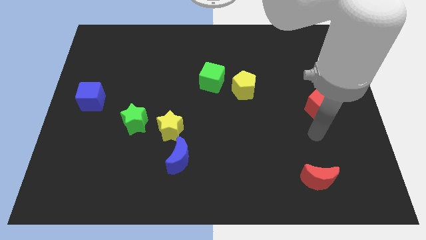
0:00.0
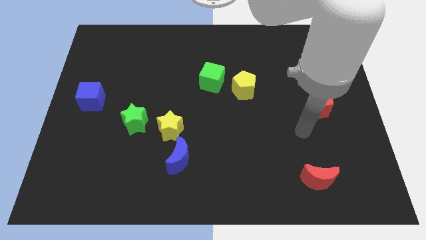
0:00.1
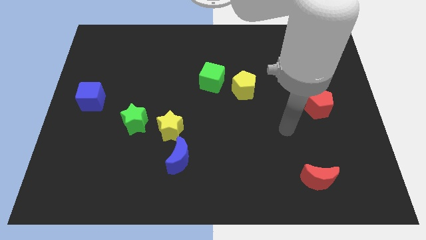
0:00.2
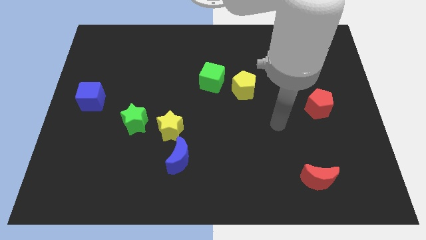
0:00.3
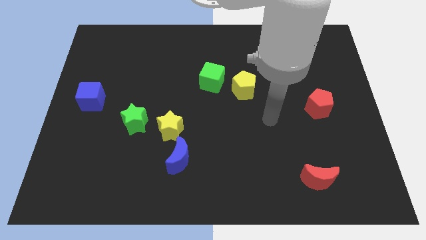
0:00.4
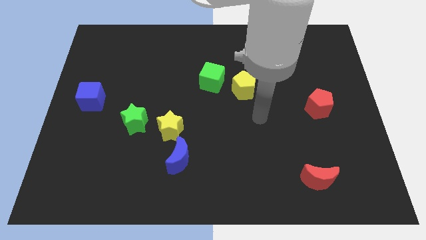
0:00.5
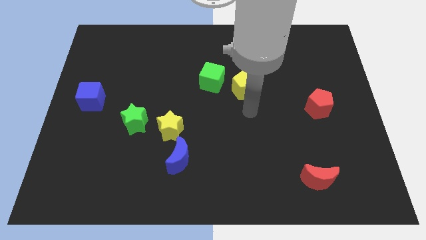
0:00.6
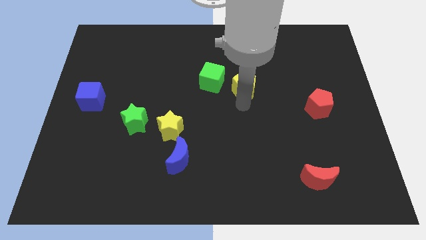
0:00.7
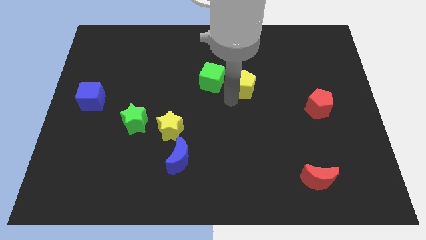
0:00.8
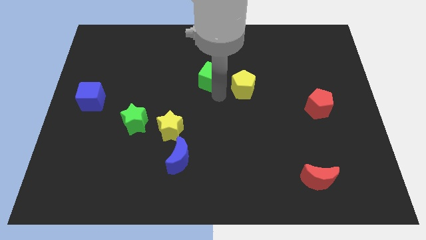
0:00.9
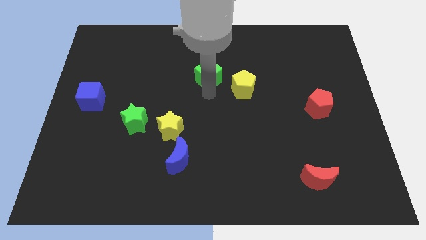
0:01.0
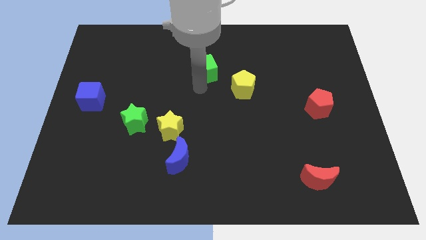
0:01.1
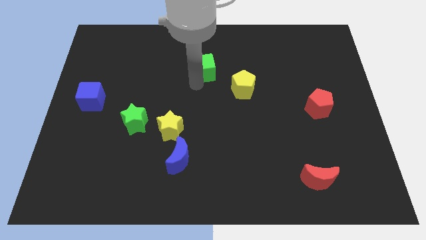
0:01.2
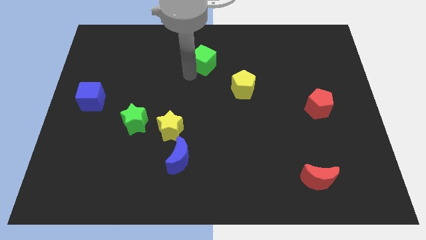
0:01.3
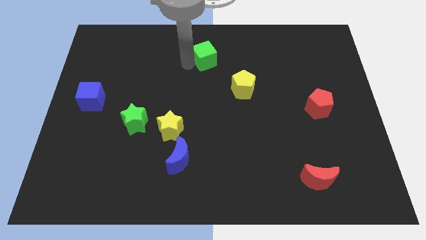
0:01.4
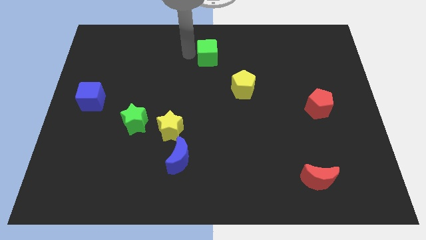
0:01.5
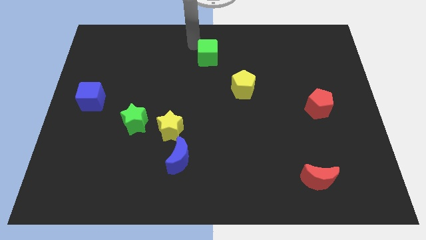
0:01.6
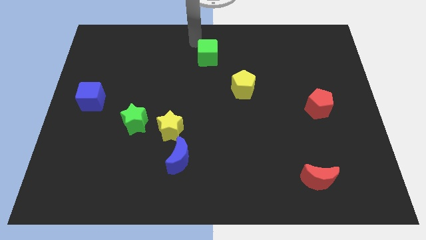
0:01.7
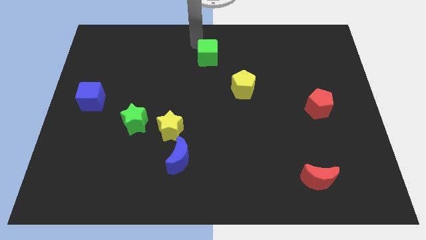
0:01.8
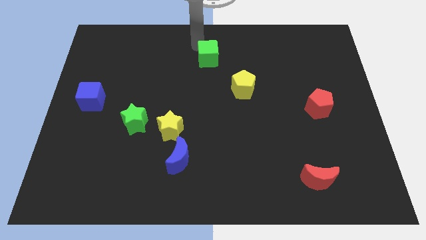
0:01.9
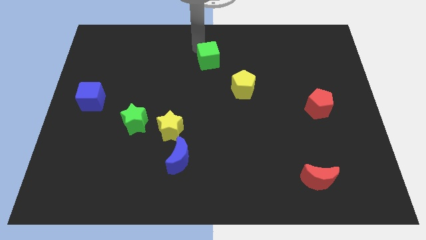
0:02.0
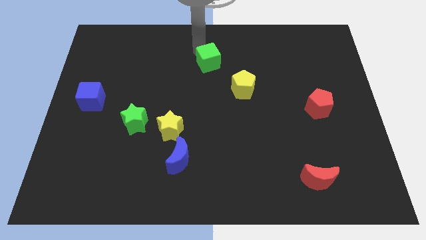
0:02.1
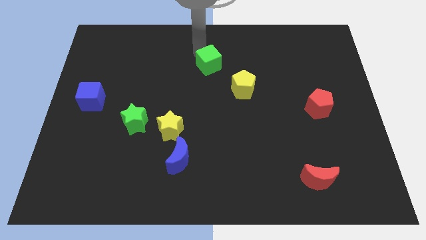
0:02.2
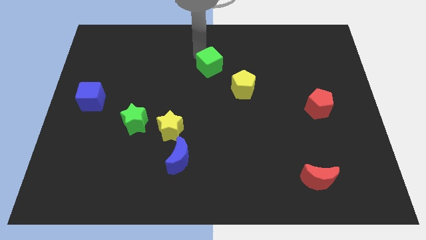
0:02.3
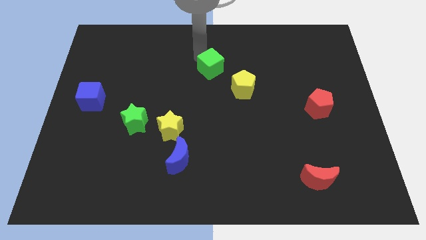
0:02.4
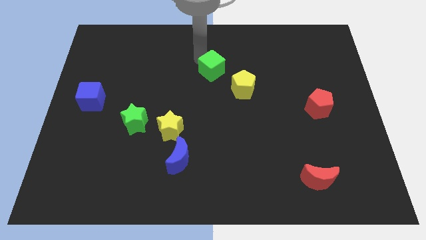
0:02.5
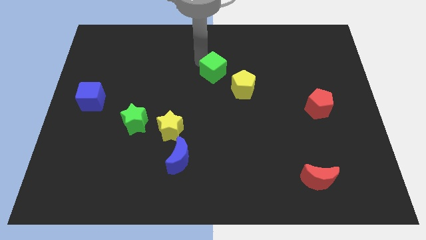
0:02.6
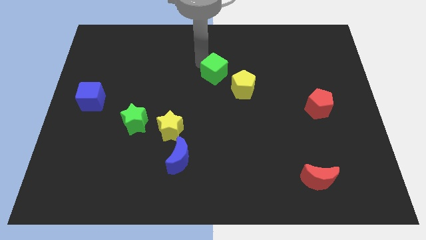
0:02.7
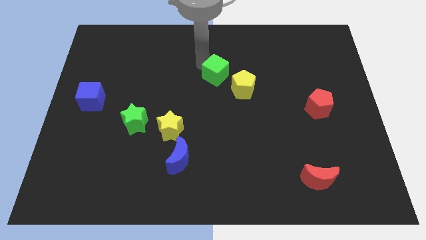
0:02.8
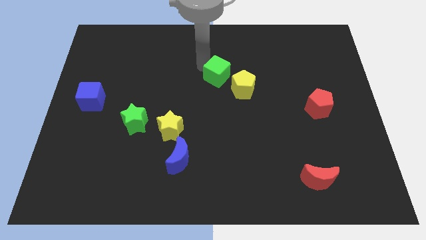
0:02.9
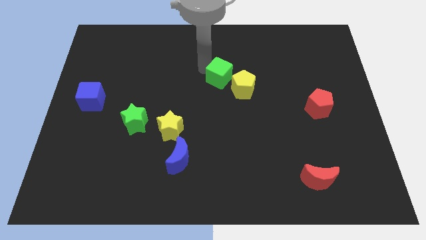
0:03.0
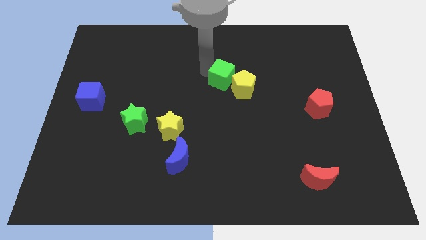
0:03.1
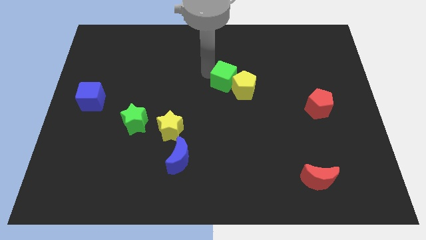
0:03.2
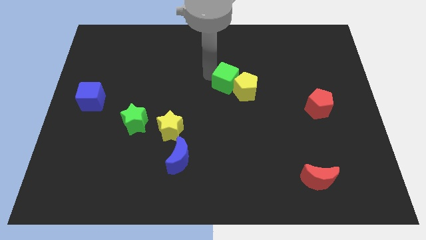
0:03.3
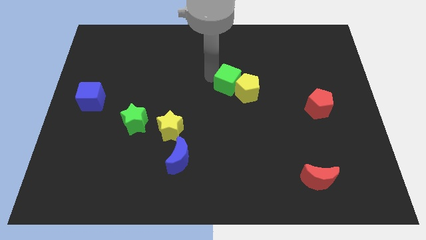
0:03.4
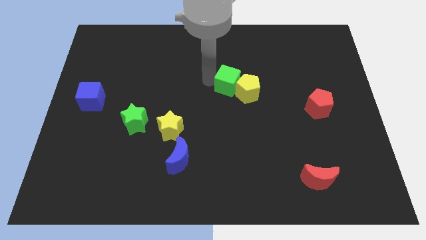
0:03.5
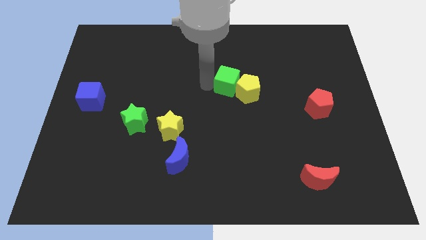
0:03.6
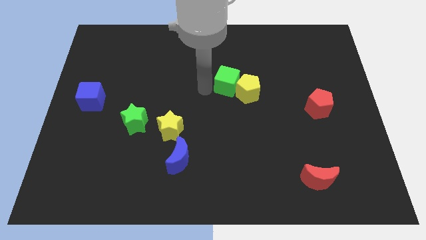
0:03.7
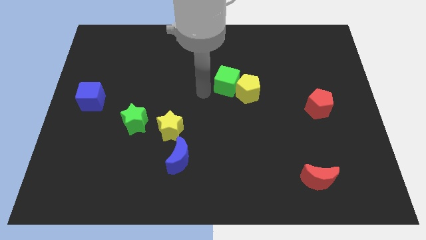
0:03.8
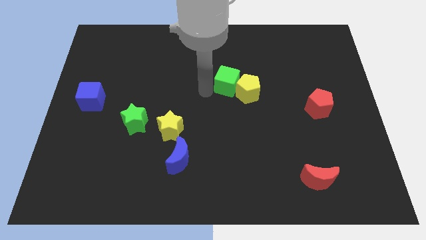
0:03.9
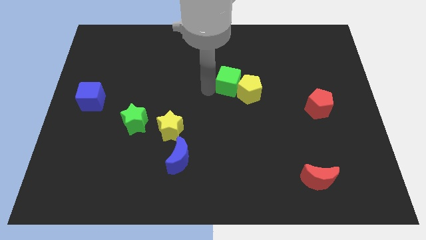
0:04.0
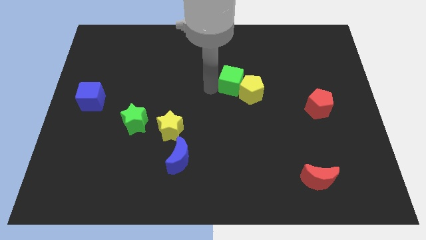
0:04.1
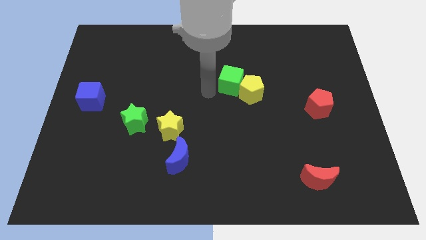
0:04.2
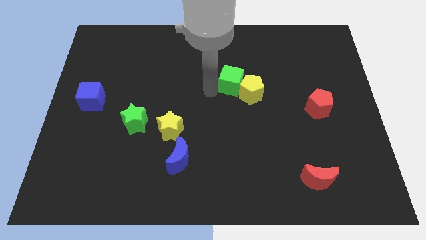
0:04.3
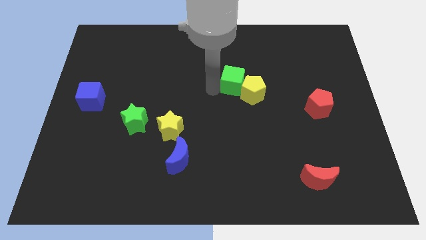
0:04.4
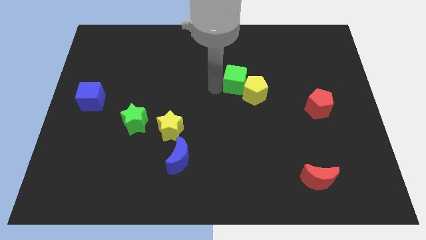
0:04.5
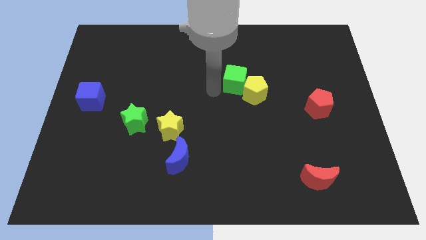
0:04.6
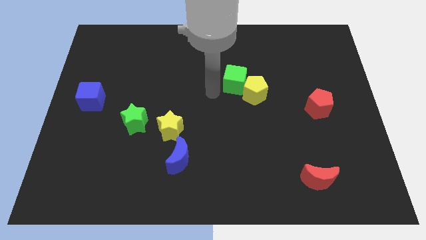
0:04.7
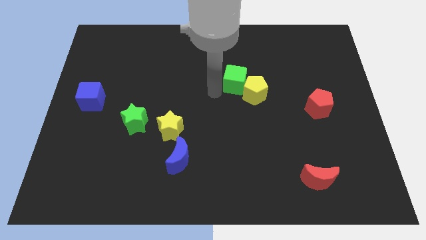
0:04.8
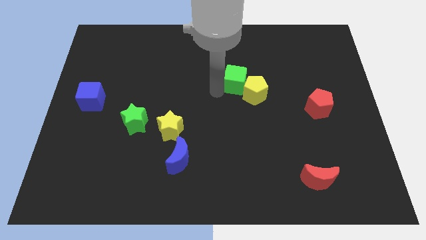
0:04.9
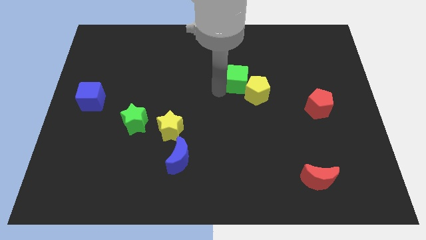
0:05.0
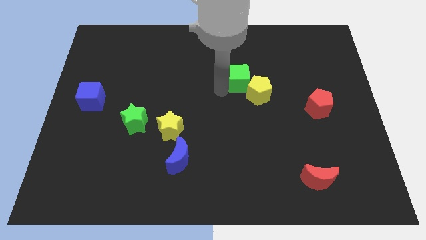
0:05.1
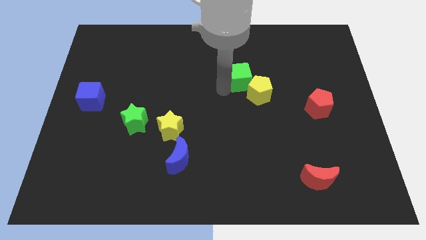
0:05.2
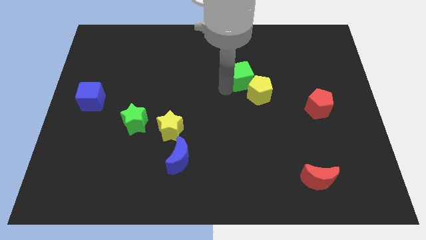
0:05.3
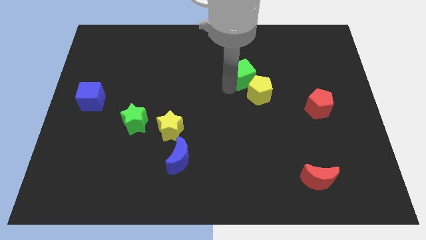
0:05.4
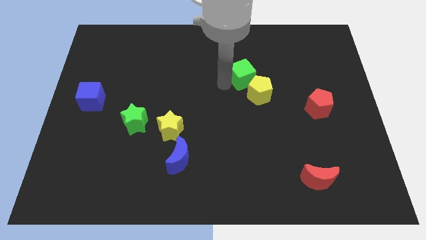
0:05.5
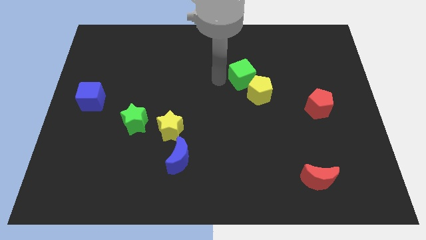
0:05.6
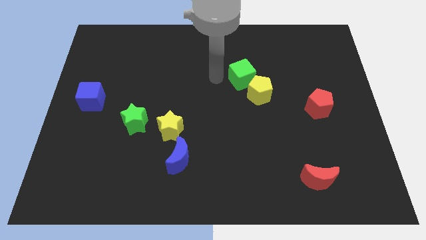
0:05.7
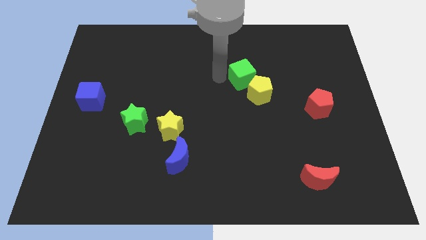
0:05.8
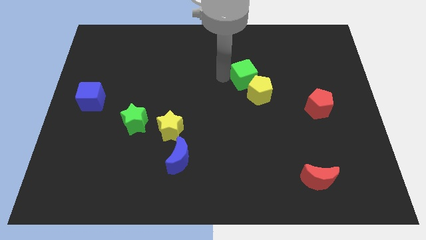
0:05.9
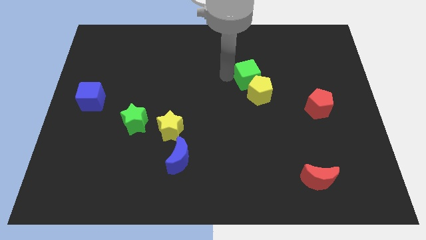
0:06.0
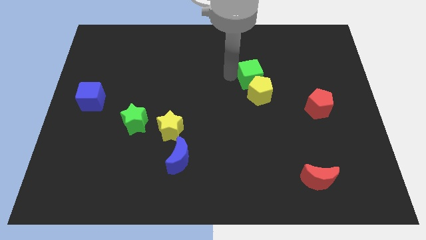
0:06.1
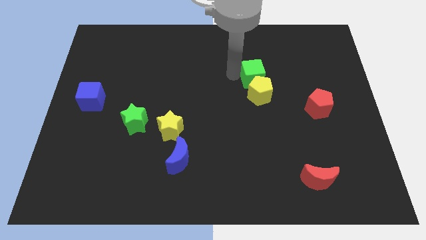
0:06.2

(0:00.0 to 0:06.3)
slide the green cube to the top right of the yellow pentagon

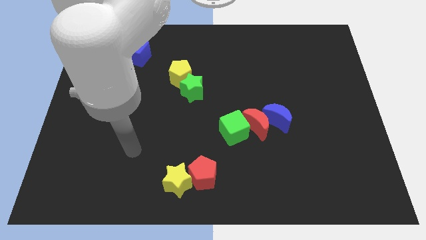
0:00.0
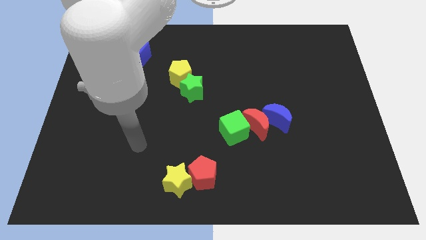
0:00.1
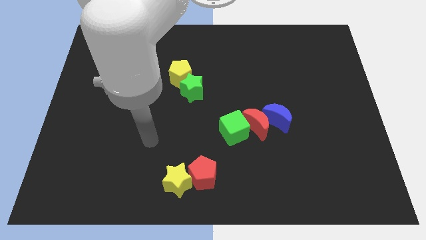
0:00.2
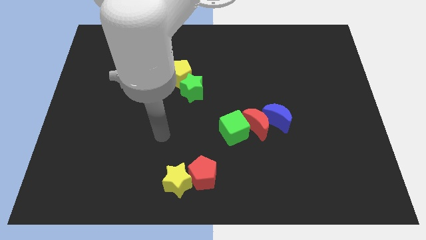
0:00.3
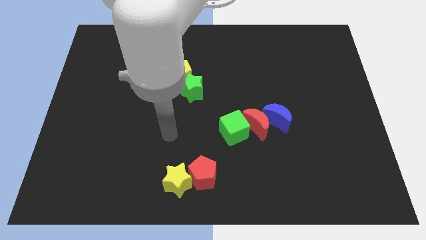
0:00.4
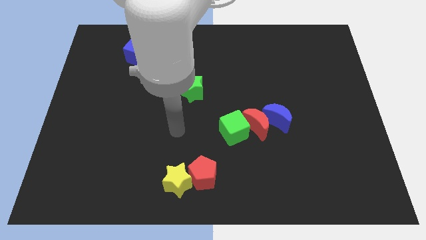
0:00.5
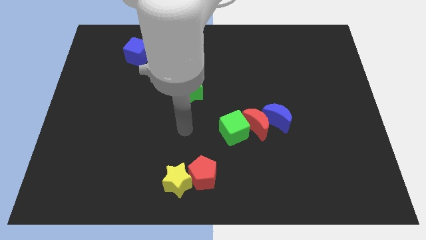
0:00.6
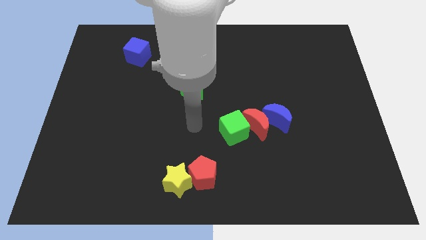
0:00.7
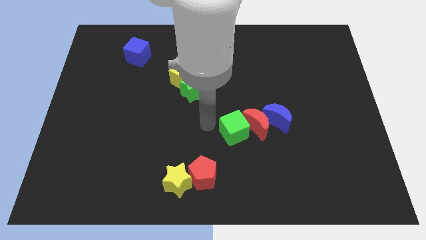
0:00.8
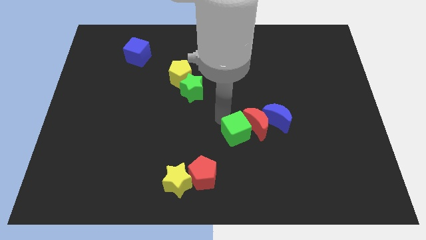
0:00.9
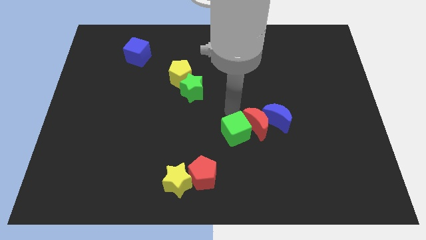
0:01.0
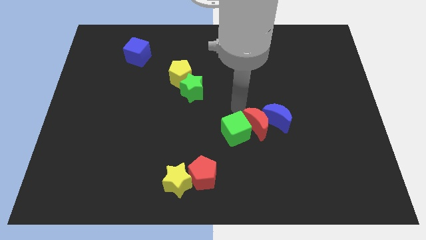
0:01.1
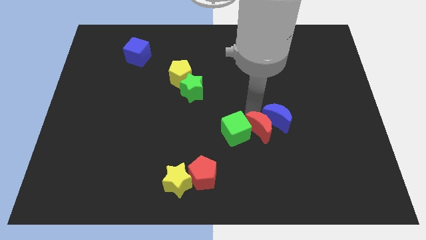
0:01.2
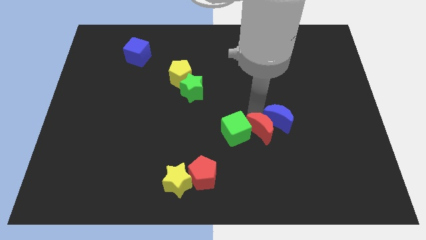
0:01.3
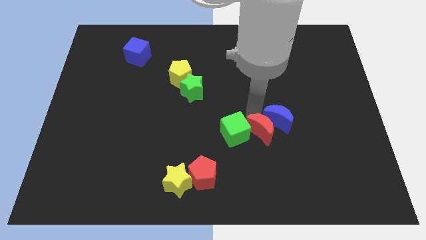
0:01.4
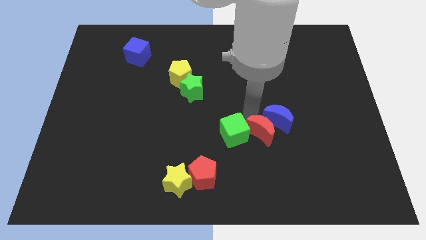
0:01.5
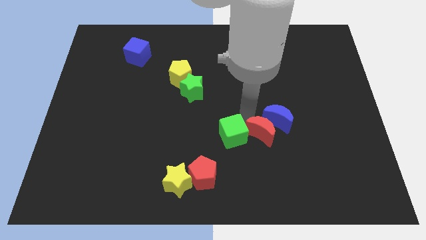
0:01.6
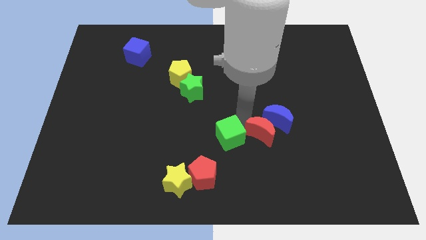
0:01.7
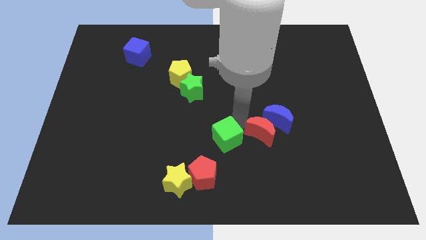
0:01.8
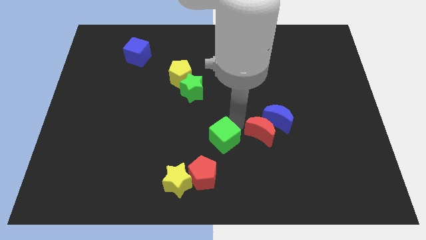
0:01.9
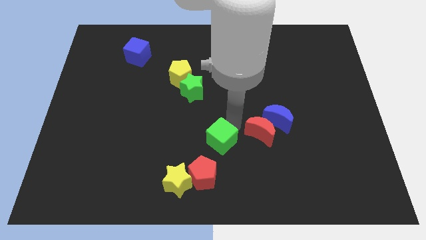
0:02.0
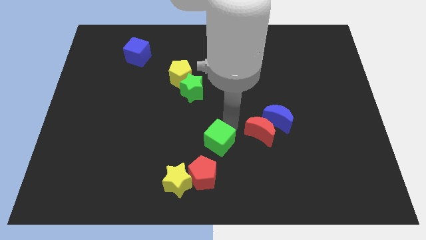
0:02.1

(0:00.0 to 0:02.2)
slide the green cube diagonally up and to the right of the yellow star
